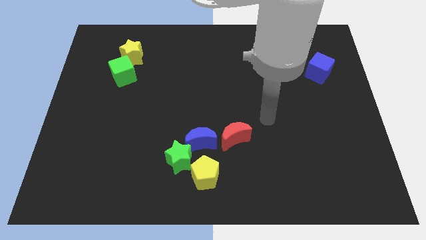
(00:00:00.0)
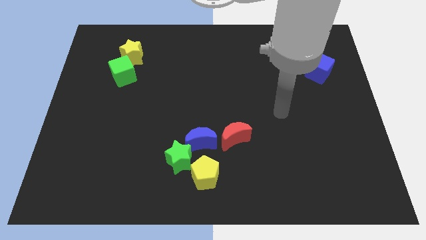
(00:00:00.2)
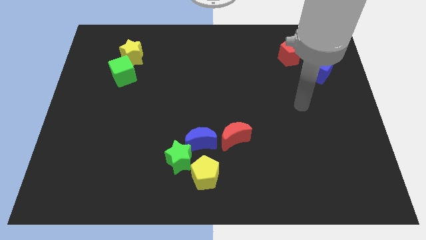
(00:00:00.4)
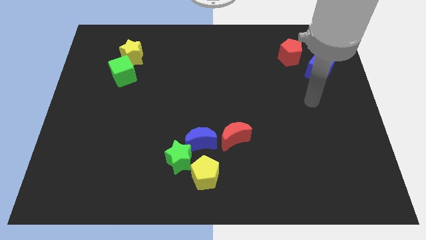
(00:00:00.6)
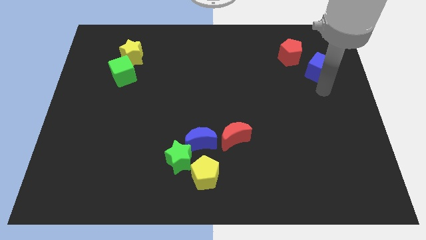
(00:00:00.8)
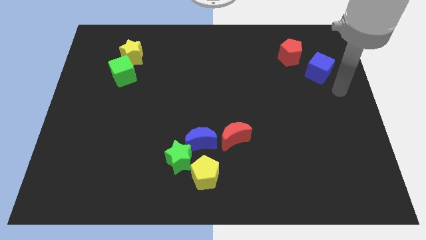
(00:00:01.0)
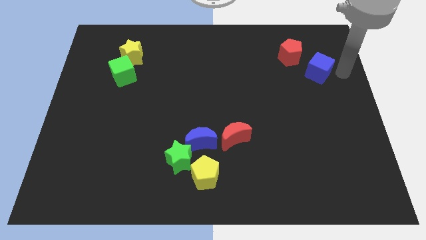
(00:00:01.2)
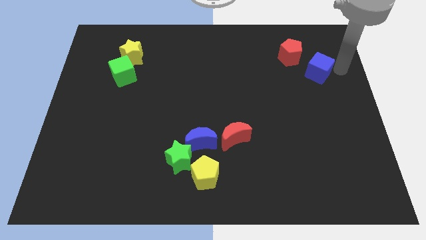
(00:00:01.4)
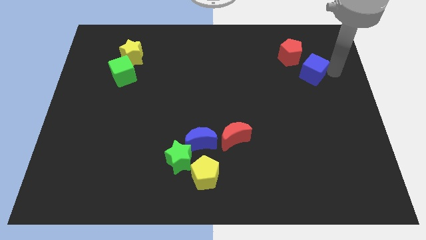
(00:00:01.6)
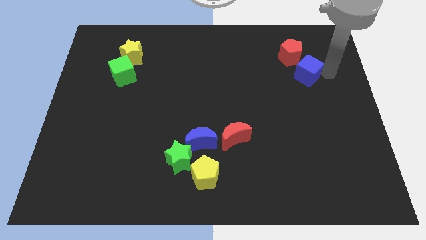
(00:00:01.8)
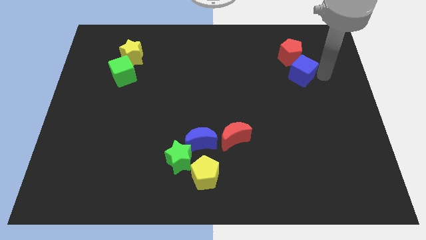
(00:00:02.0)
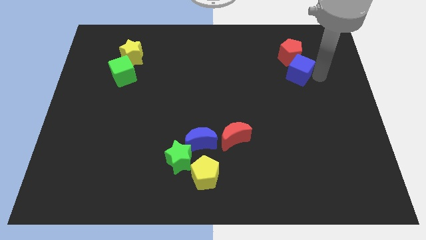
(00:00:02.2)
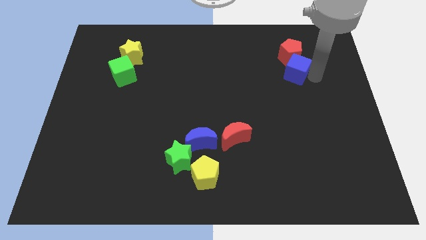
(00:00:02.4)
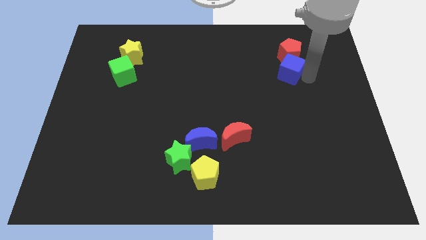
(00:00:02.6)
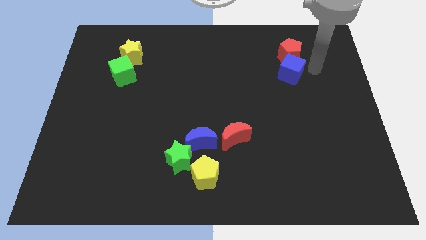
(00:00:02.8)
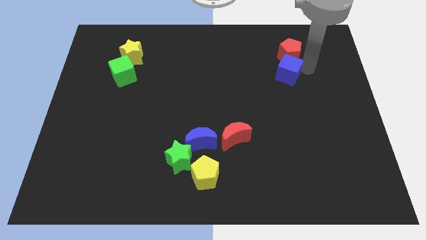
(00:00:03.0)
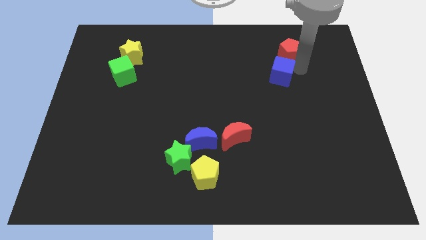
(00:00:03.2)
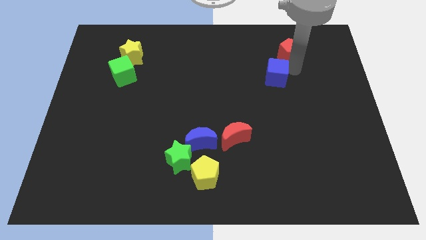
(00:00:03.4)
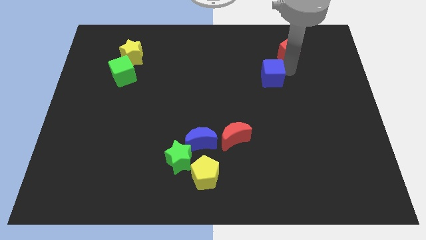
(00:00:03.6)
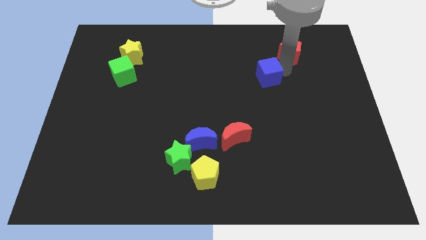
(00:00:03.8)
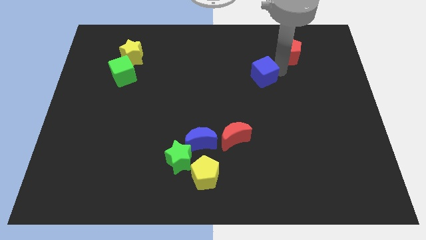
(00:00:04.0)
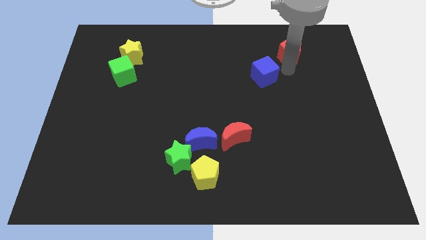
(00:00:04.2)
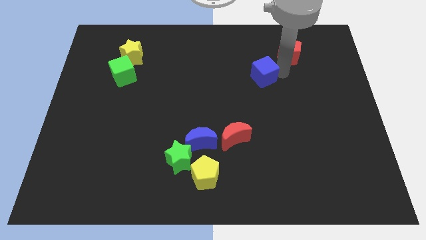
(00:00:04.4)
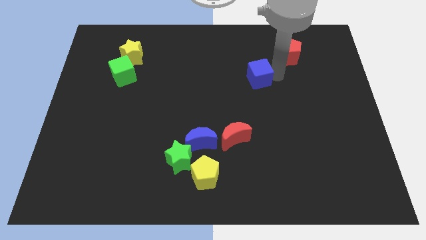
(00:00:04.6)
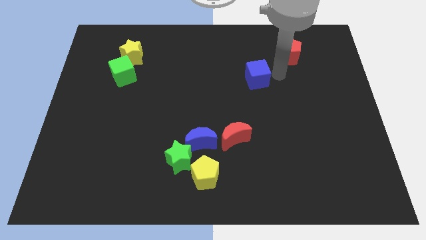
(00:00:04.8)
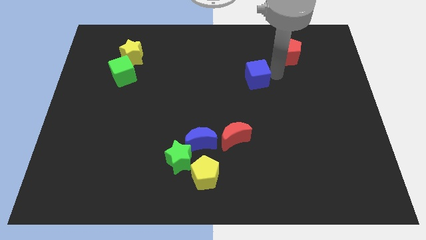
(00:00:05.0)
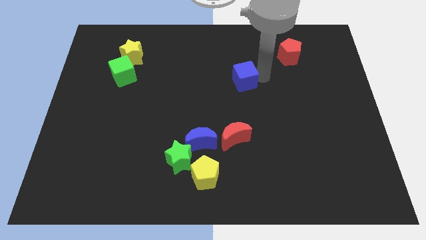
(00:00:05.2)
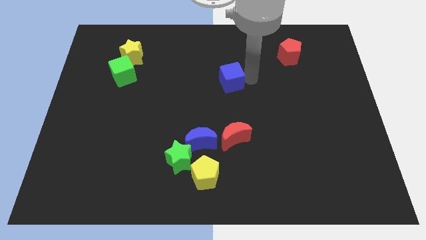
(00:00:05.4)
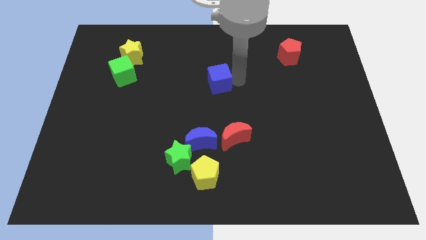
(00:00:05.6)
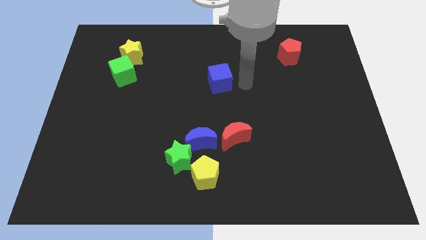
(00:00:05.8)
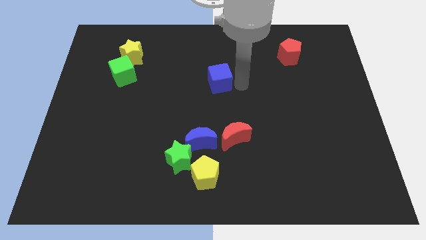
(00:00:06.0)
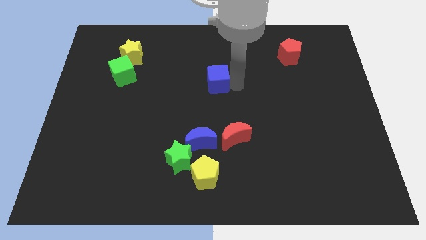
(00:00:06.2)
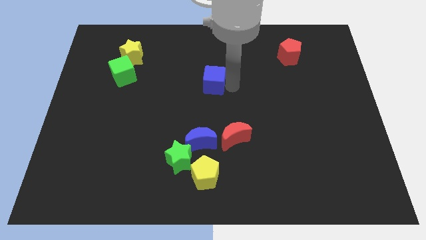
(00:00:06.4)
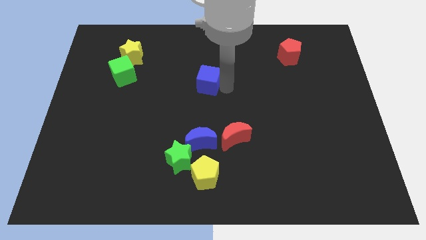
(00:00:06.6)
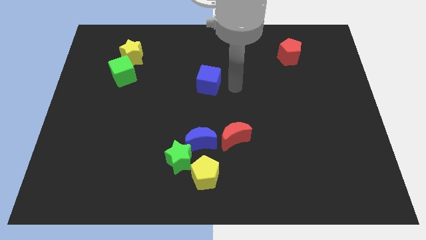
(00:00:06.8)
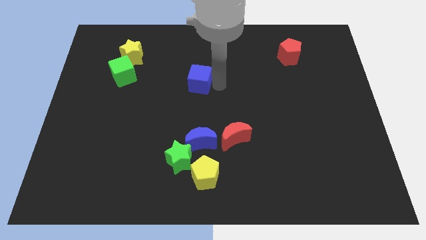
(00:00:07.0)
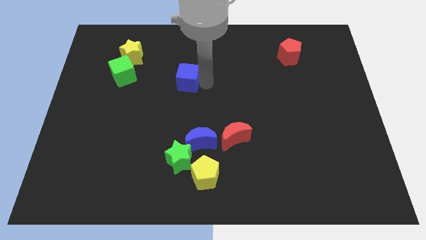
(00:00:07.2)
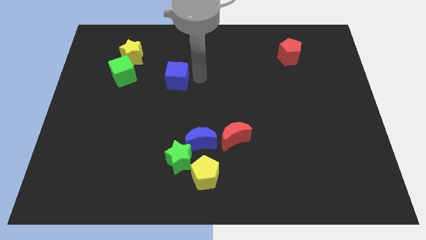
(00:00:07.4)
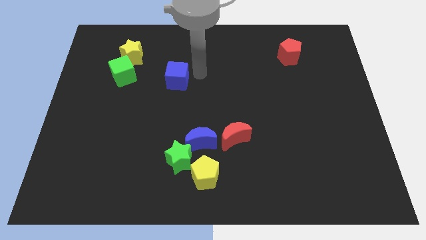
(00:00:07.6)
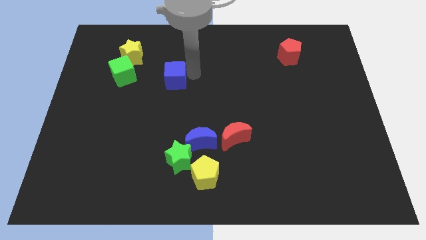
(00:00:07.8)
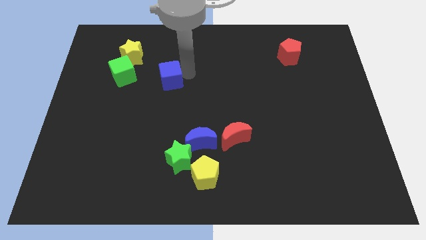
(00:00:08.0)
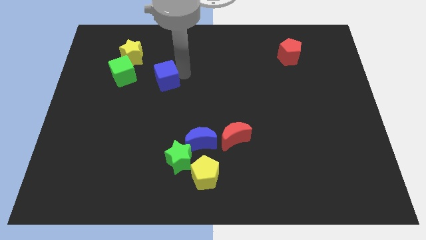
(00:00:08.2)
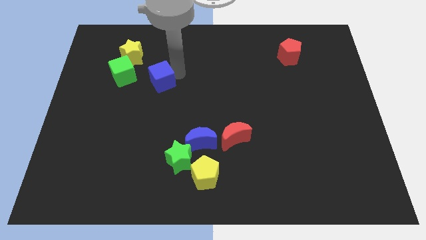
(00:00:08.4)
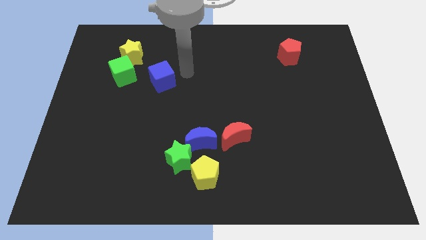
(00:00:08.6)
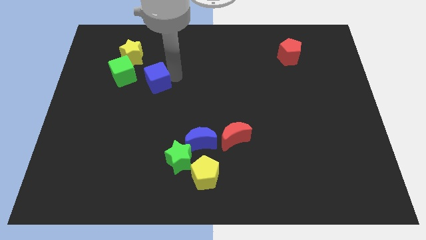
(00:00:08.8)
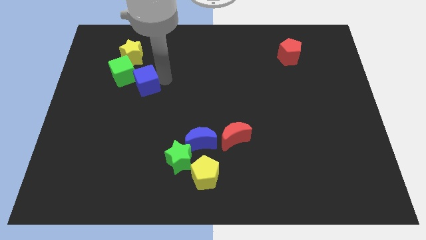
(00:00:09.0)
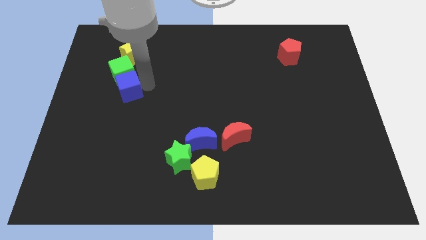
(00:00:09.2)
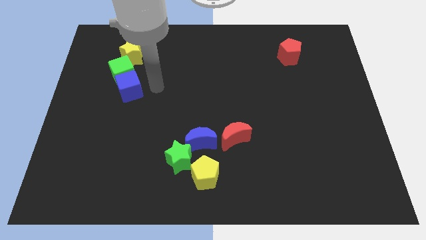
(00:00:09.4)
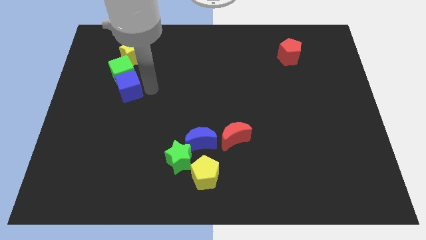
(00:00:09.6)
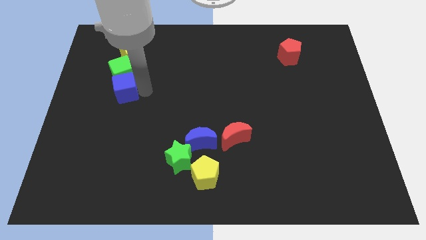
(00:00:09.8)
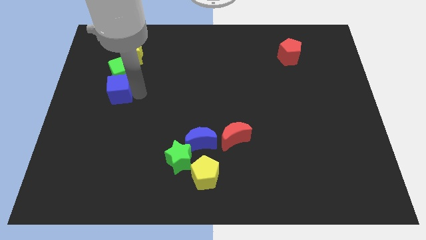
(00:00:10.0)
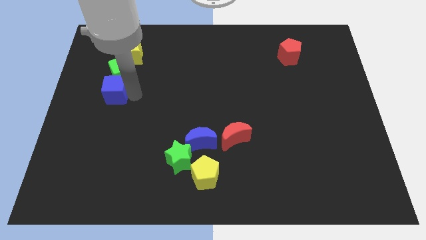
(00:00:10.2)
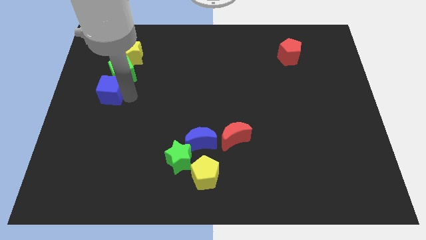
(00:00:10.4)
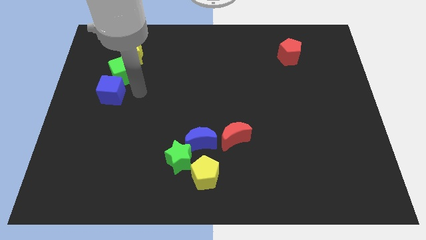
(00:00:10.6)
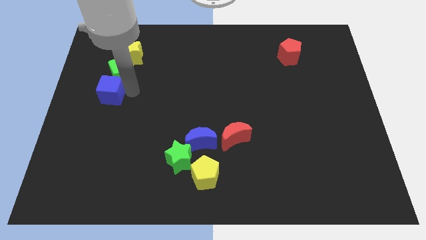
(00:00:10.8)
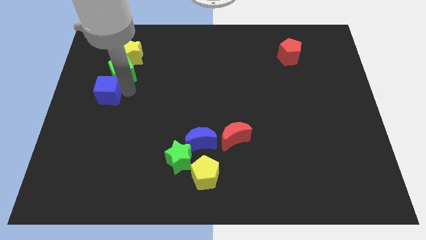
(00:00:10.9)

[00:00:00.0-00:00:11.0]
slide the blue cube to the left side

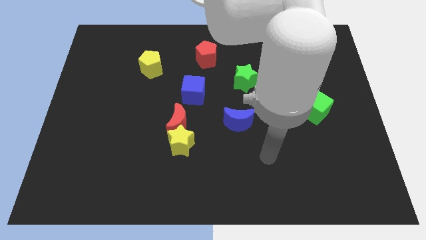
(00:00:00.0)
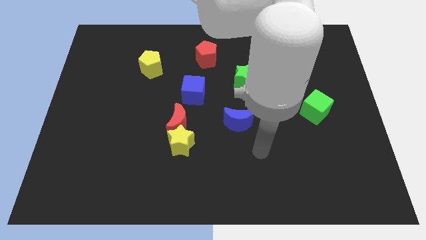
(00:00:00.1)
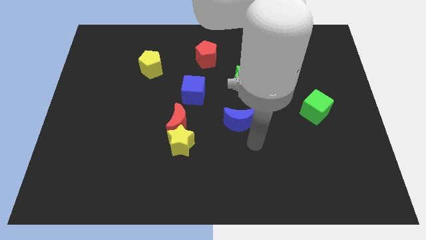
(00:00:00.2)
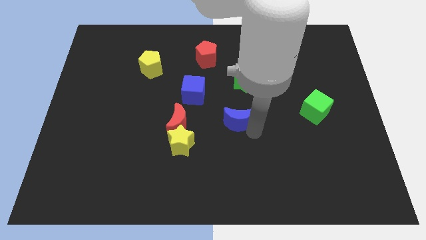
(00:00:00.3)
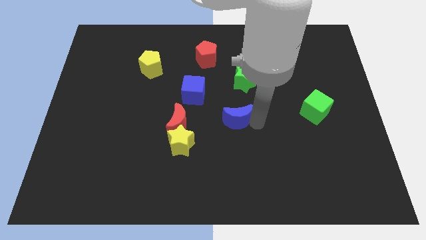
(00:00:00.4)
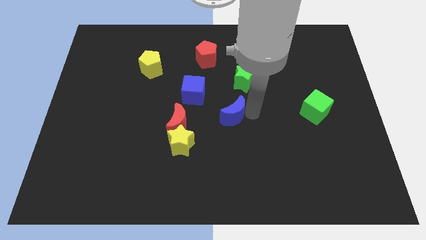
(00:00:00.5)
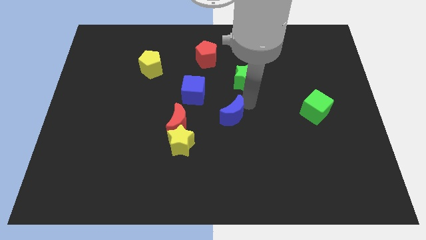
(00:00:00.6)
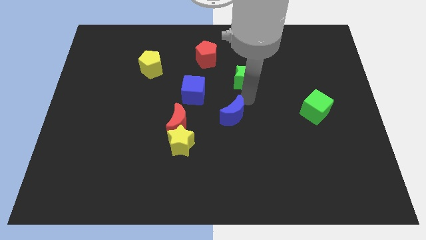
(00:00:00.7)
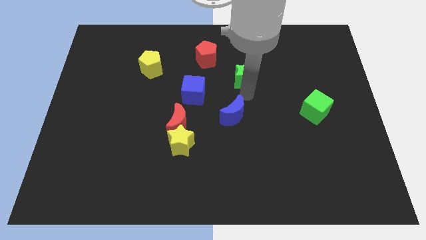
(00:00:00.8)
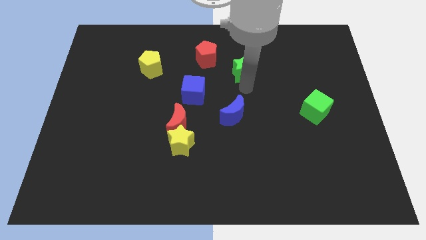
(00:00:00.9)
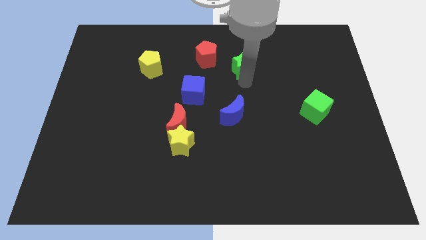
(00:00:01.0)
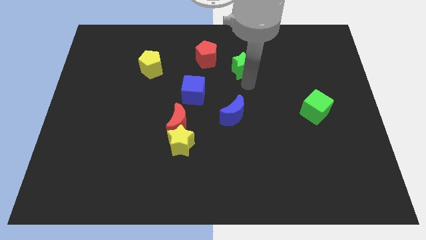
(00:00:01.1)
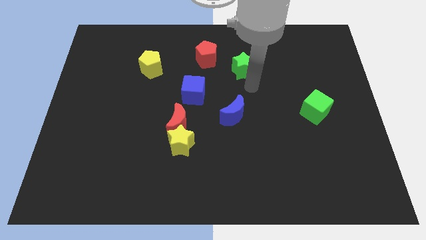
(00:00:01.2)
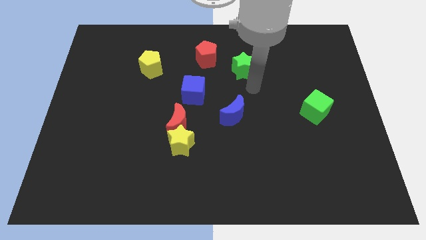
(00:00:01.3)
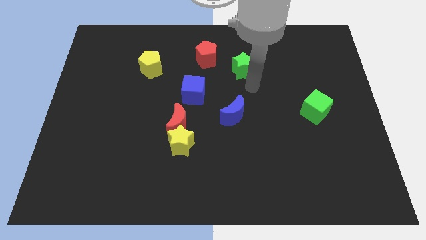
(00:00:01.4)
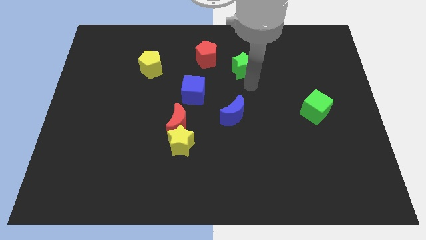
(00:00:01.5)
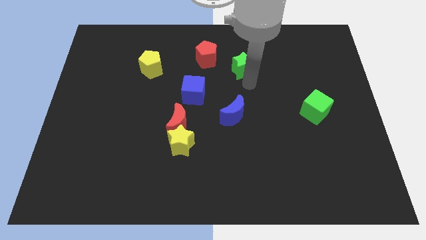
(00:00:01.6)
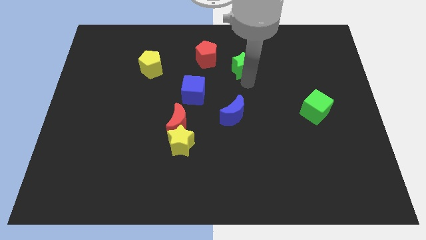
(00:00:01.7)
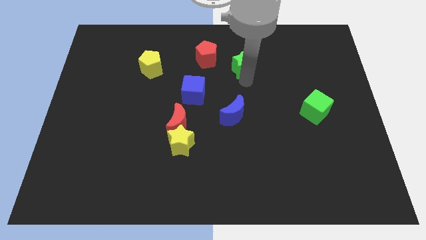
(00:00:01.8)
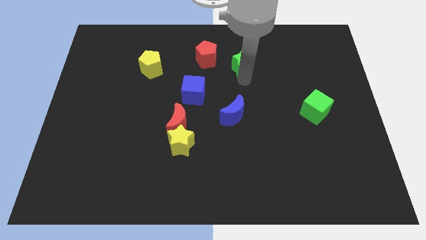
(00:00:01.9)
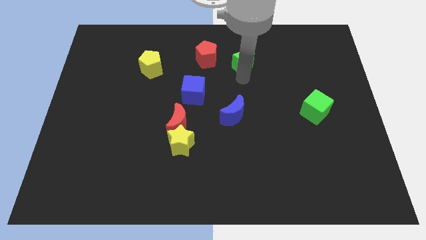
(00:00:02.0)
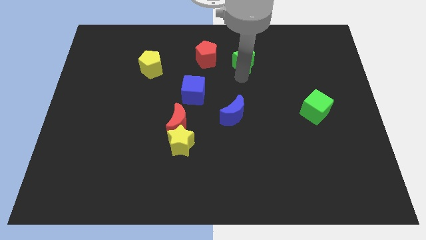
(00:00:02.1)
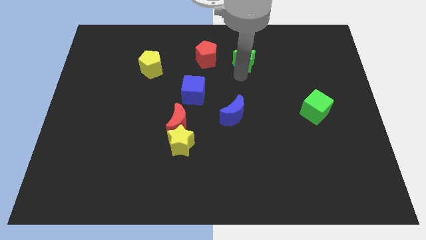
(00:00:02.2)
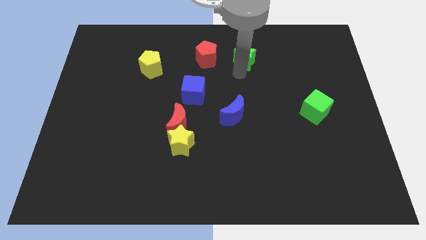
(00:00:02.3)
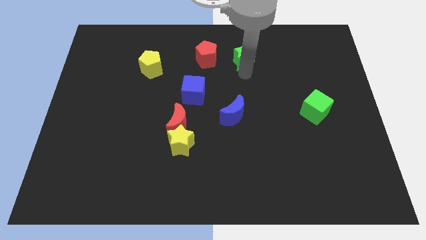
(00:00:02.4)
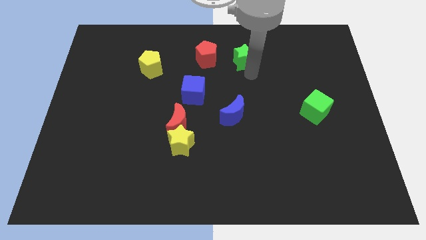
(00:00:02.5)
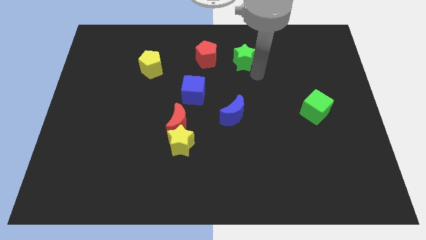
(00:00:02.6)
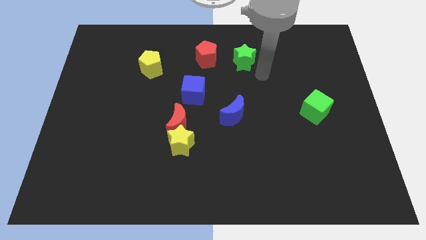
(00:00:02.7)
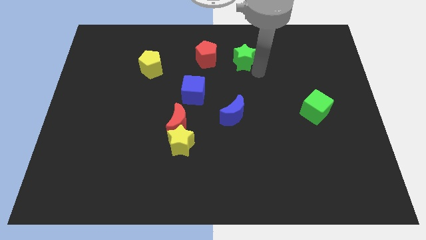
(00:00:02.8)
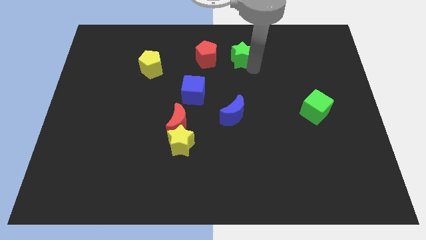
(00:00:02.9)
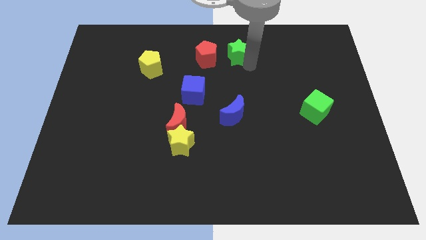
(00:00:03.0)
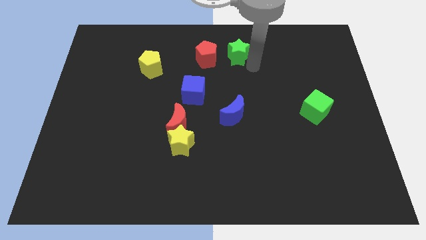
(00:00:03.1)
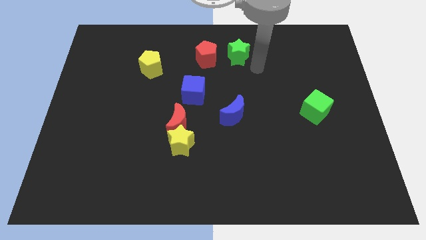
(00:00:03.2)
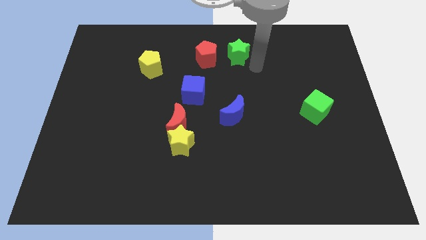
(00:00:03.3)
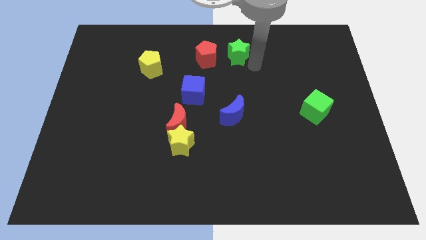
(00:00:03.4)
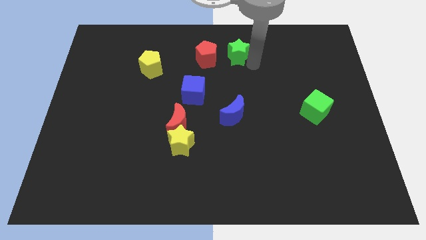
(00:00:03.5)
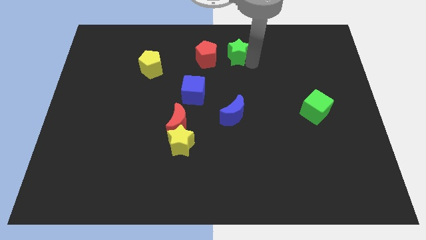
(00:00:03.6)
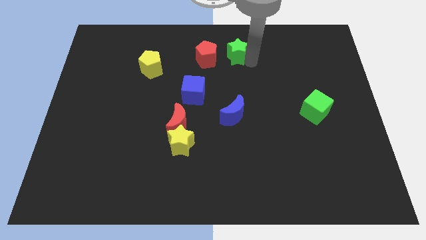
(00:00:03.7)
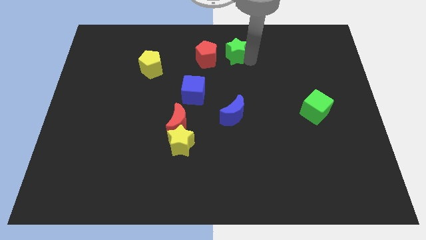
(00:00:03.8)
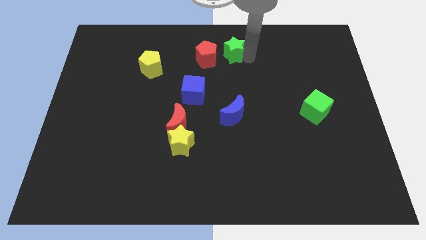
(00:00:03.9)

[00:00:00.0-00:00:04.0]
slide the green star to the towards your base
